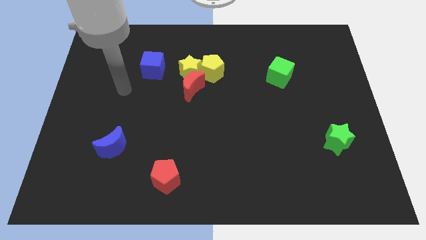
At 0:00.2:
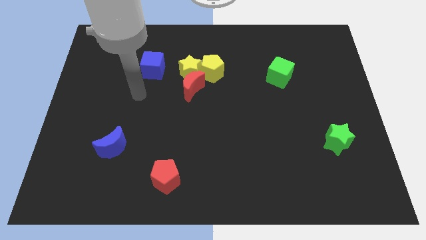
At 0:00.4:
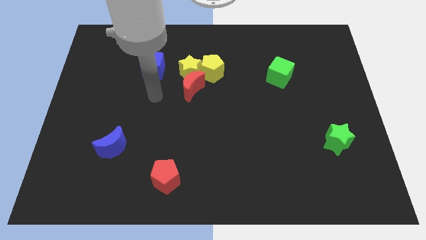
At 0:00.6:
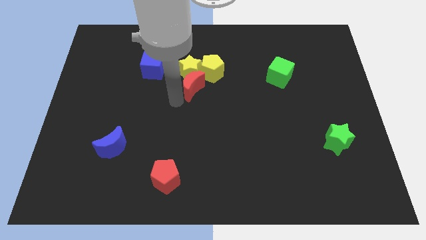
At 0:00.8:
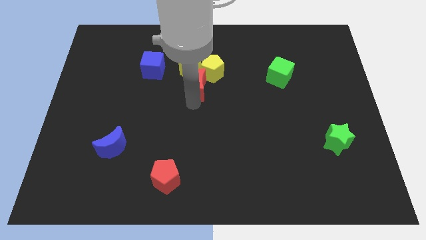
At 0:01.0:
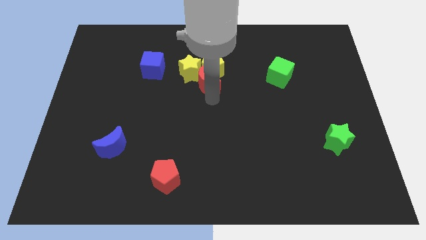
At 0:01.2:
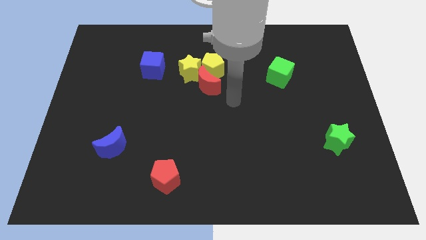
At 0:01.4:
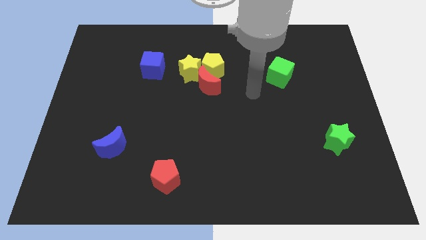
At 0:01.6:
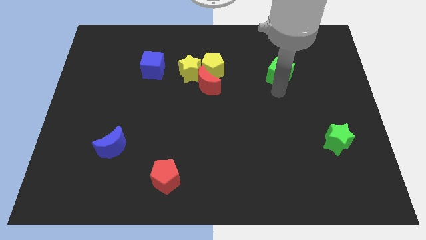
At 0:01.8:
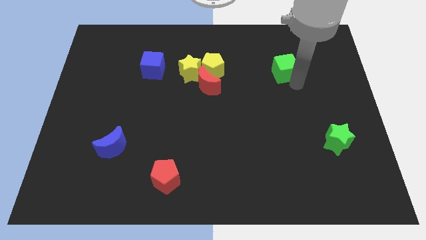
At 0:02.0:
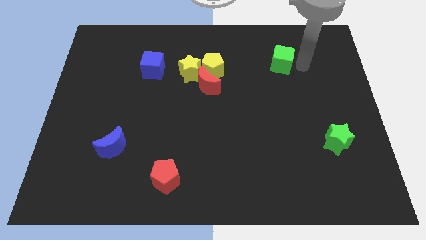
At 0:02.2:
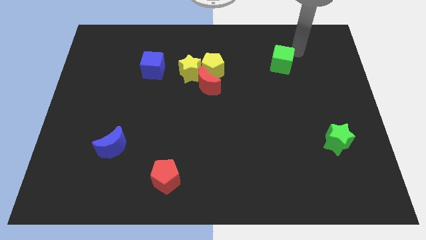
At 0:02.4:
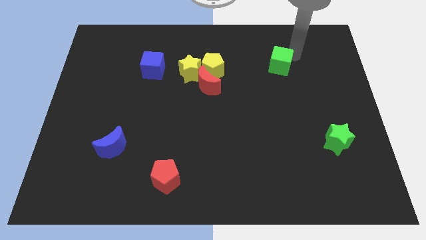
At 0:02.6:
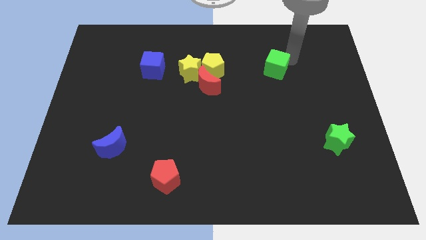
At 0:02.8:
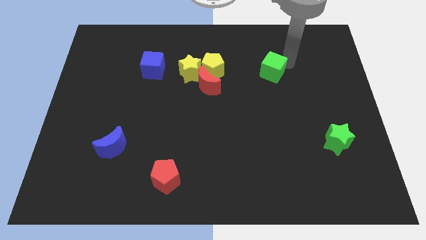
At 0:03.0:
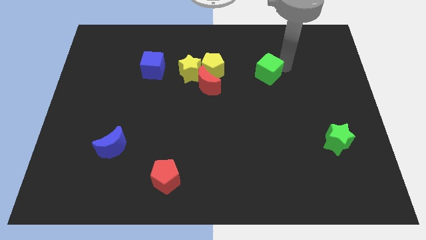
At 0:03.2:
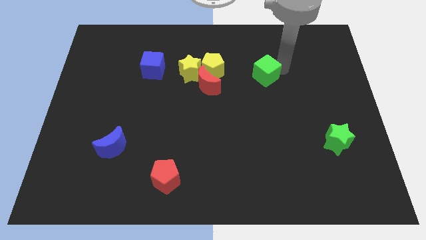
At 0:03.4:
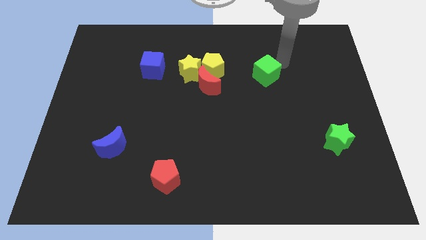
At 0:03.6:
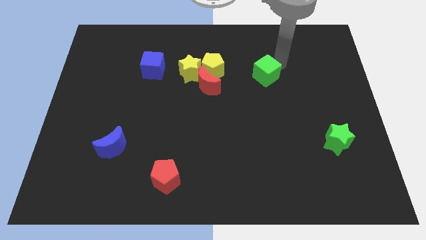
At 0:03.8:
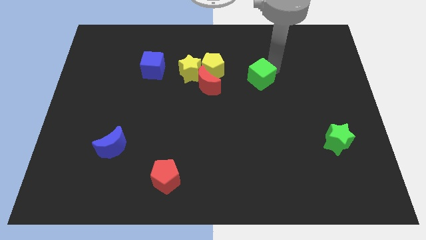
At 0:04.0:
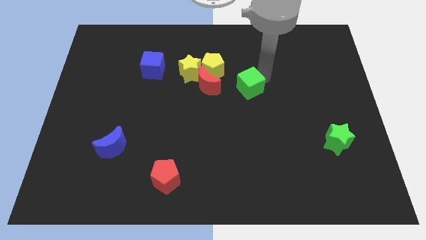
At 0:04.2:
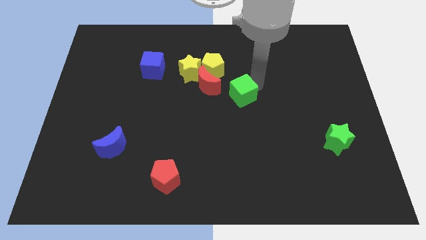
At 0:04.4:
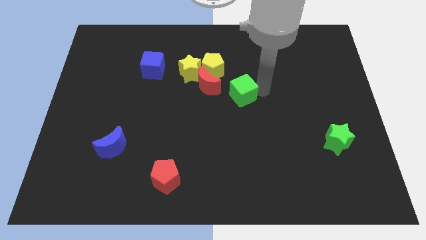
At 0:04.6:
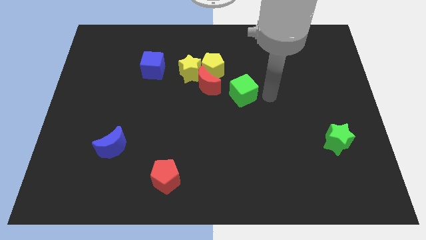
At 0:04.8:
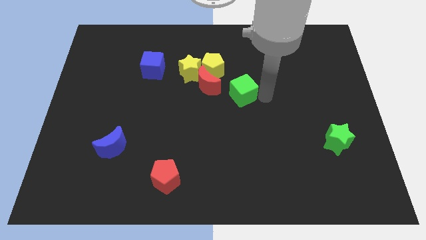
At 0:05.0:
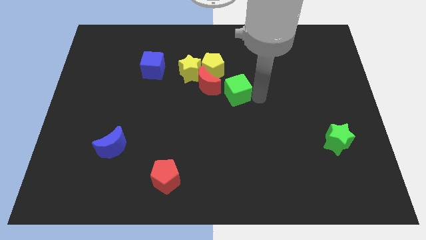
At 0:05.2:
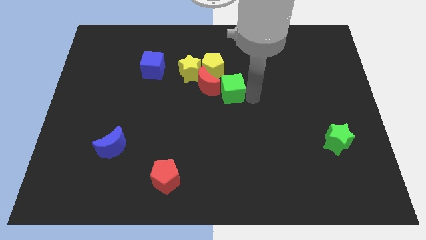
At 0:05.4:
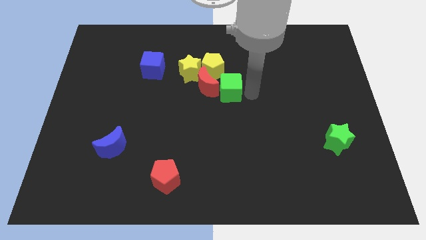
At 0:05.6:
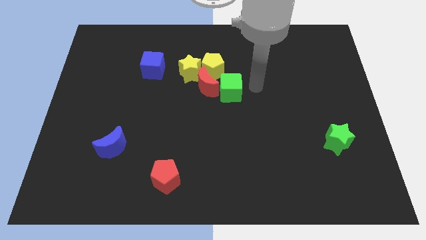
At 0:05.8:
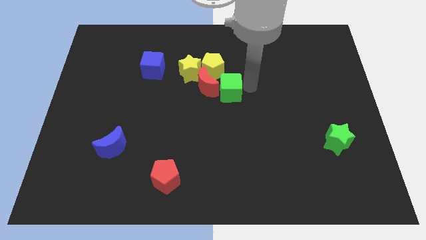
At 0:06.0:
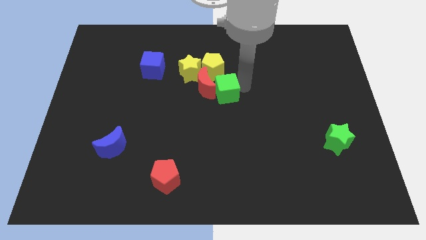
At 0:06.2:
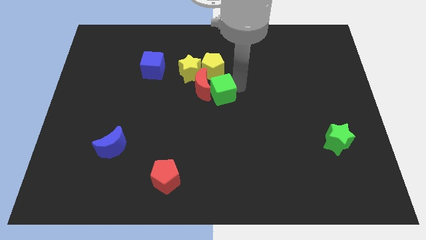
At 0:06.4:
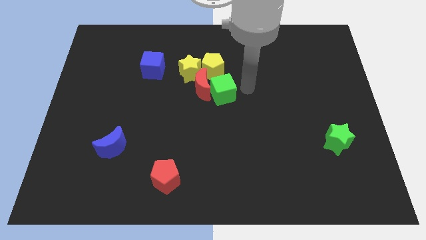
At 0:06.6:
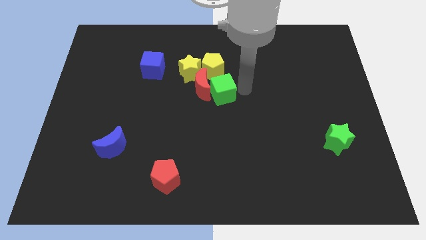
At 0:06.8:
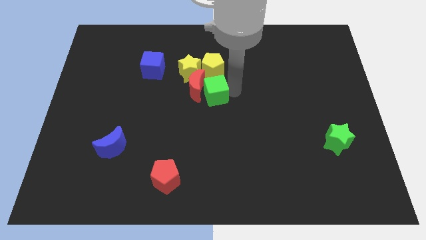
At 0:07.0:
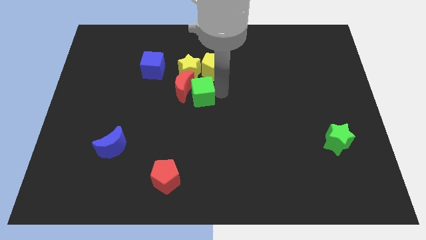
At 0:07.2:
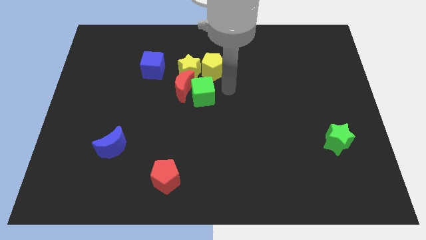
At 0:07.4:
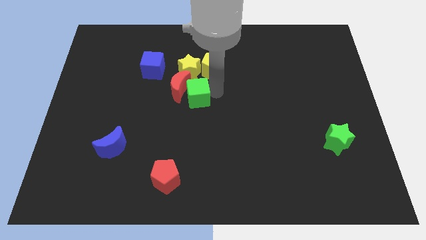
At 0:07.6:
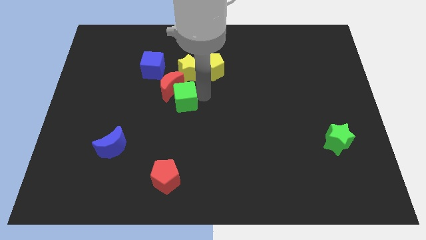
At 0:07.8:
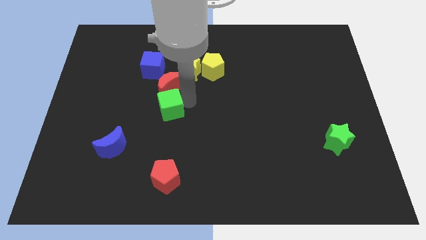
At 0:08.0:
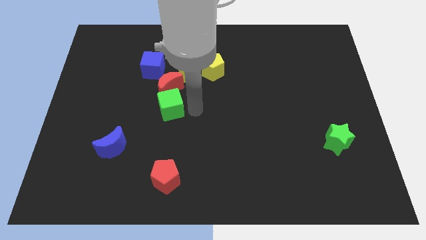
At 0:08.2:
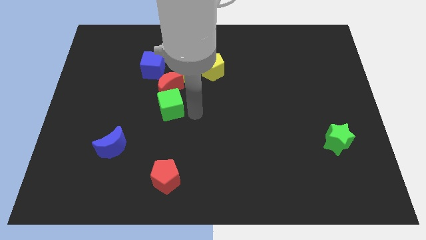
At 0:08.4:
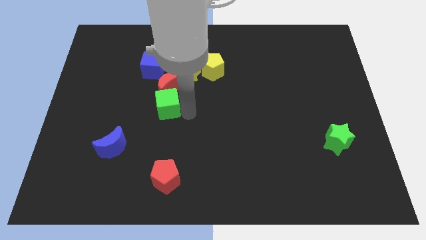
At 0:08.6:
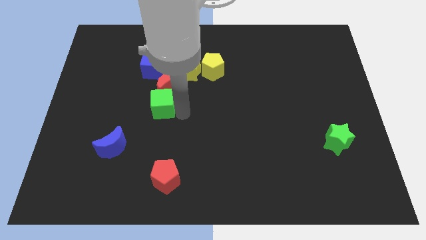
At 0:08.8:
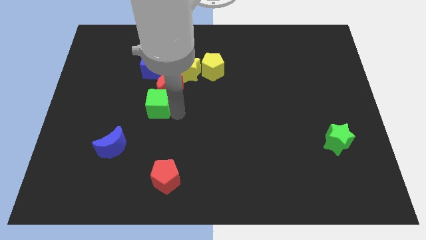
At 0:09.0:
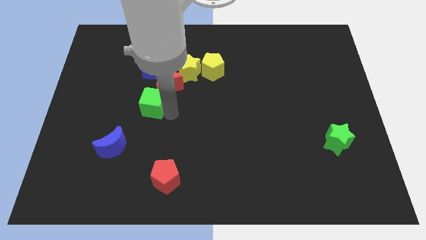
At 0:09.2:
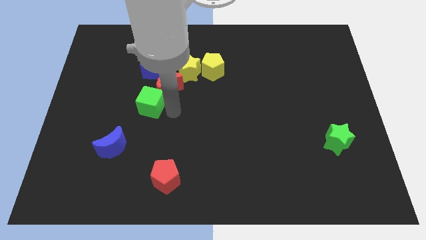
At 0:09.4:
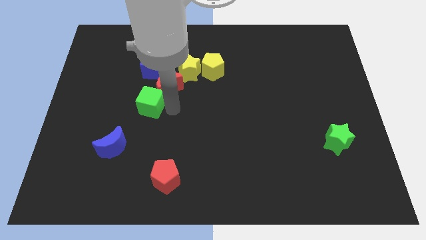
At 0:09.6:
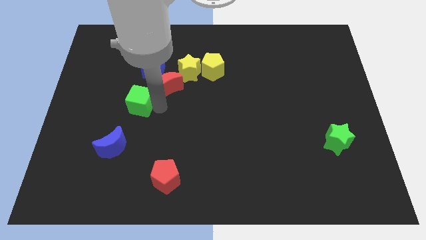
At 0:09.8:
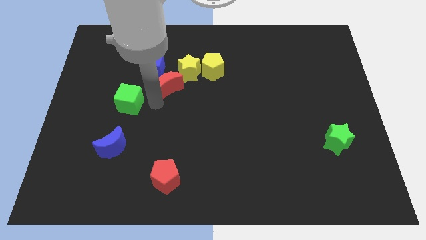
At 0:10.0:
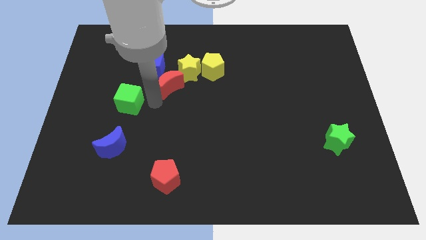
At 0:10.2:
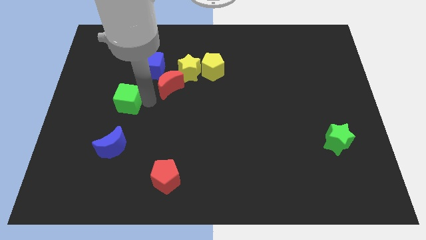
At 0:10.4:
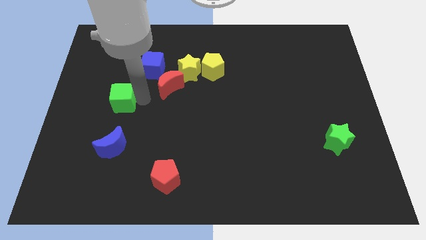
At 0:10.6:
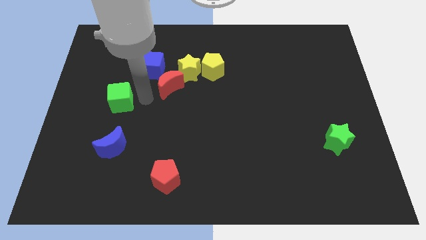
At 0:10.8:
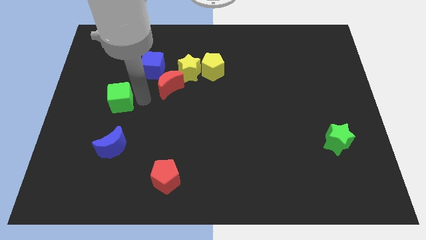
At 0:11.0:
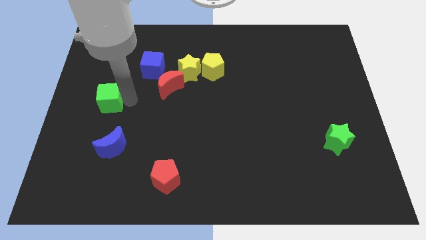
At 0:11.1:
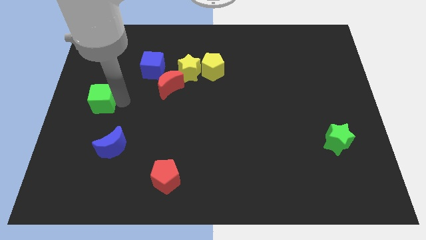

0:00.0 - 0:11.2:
slide the green cube to the center left

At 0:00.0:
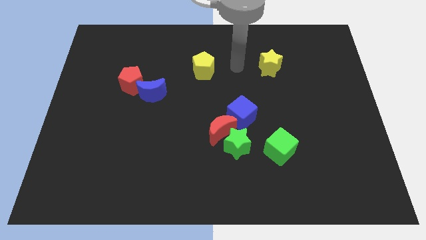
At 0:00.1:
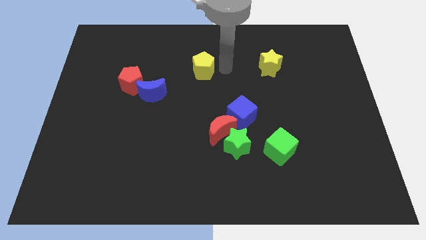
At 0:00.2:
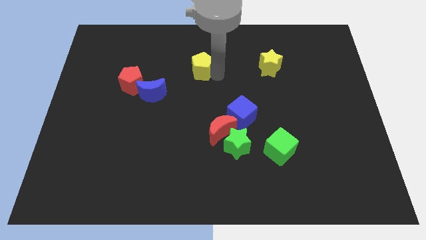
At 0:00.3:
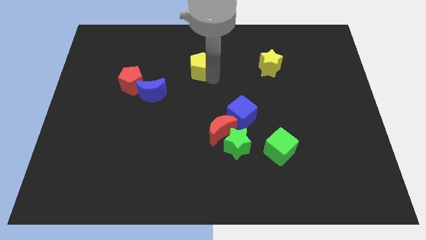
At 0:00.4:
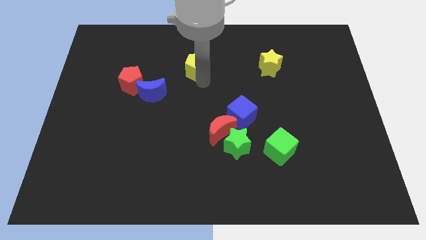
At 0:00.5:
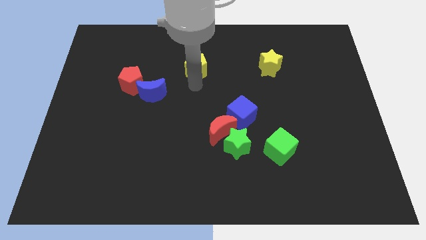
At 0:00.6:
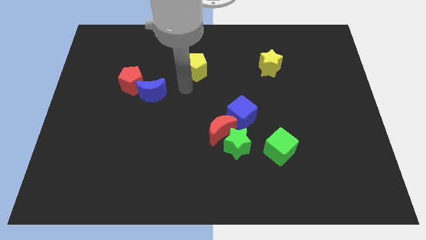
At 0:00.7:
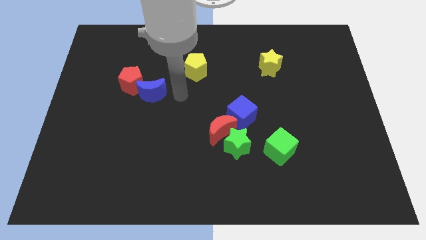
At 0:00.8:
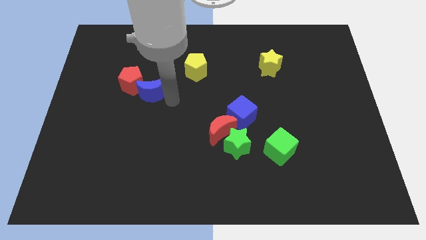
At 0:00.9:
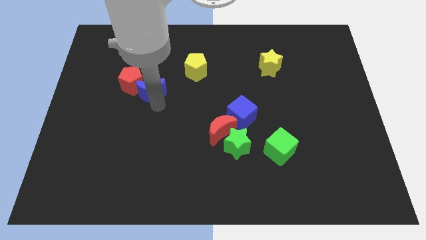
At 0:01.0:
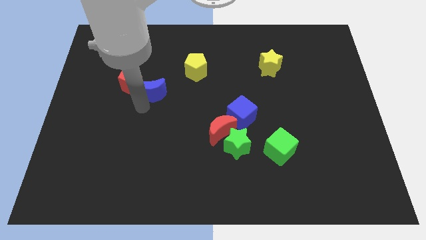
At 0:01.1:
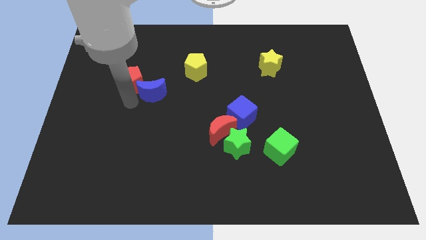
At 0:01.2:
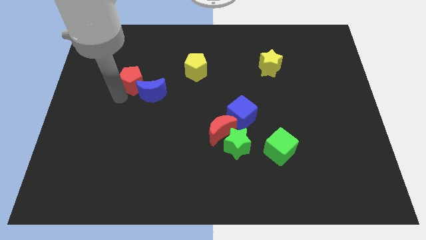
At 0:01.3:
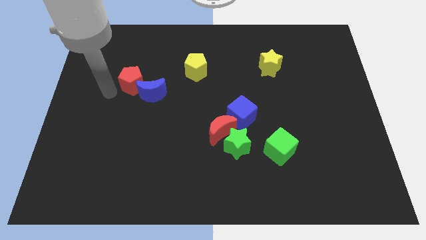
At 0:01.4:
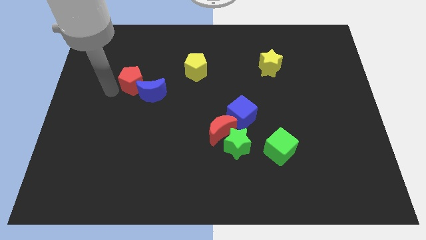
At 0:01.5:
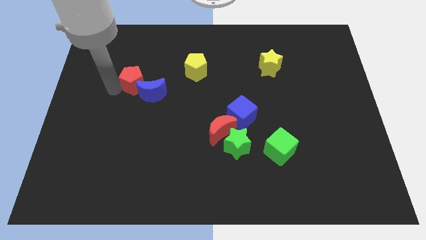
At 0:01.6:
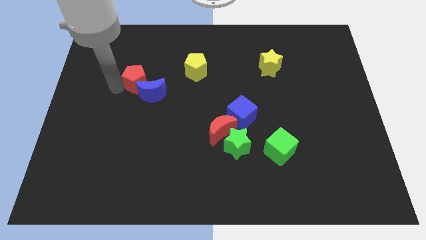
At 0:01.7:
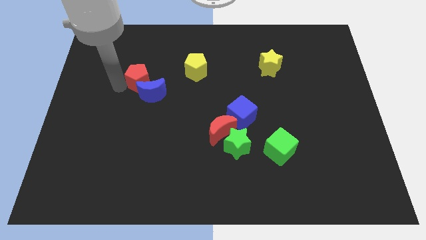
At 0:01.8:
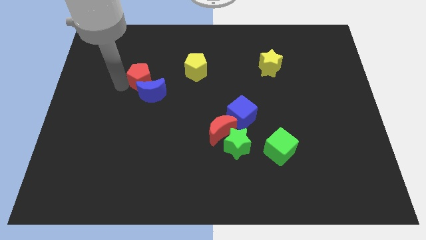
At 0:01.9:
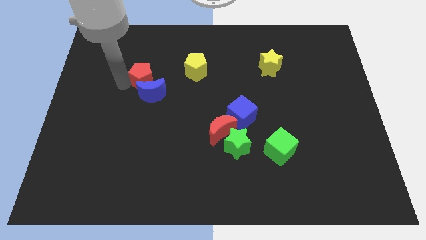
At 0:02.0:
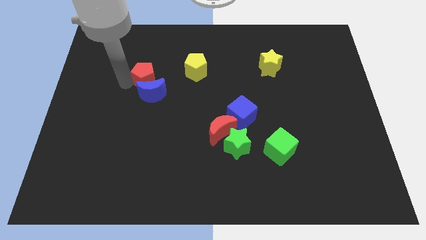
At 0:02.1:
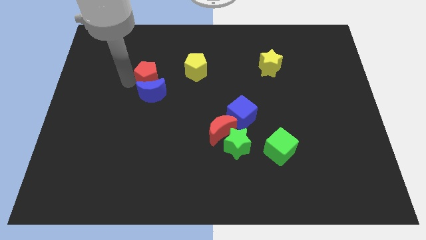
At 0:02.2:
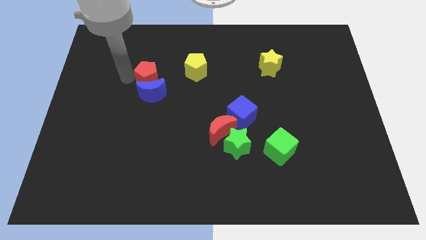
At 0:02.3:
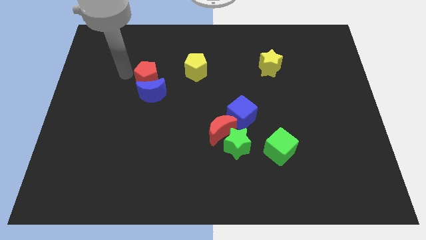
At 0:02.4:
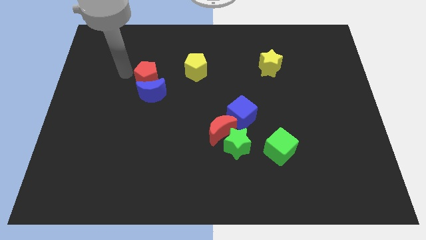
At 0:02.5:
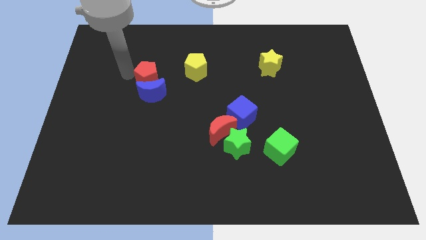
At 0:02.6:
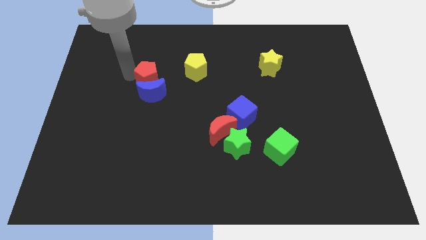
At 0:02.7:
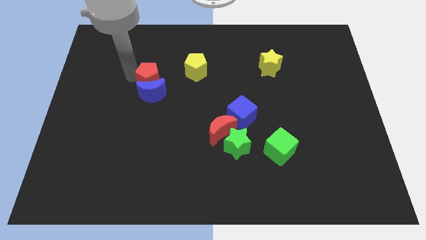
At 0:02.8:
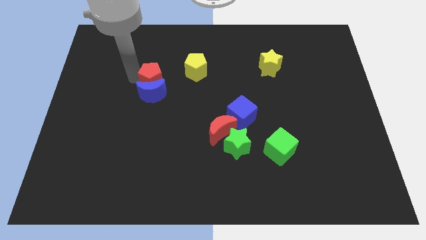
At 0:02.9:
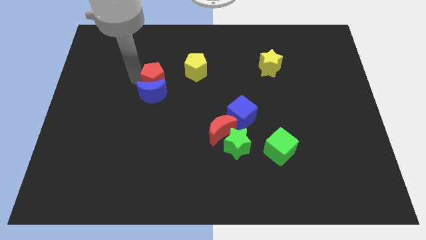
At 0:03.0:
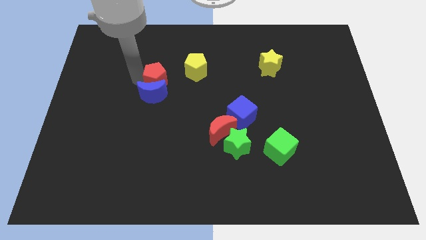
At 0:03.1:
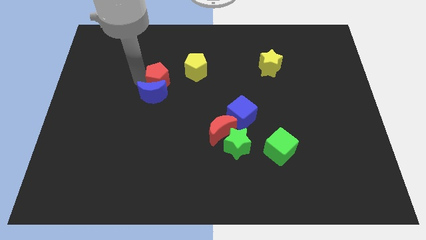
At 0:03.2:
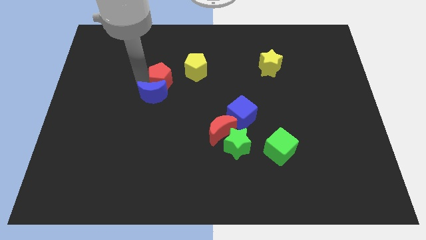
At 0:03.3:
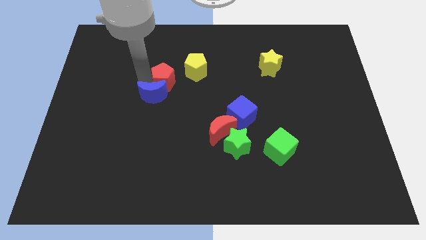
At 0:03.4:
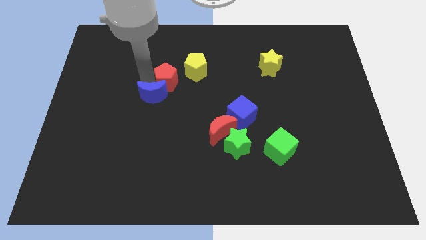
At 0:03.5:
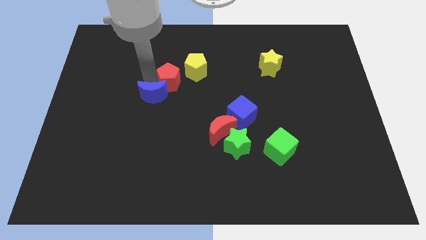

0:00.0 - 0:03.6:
move the red pentagon to the center of the board
